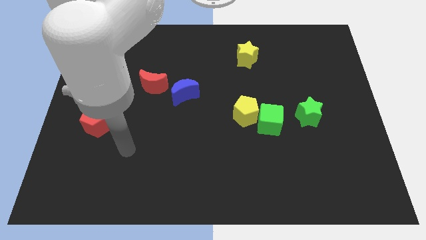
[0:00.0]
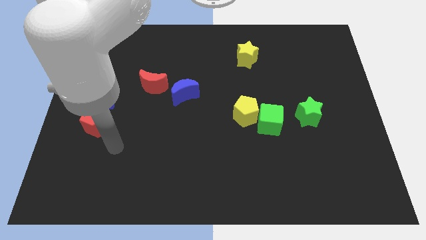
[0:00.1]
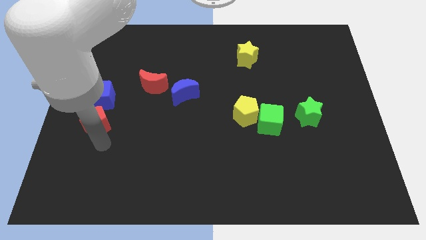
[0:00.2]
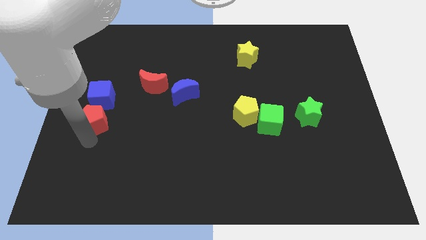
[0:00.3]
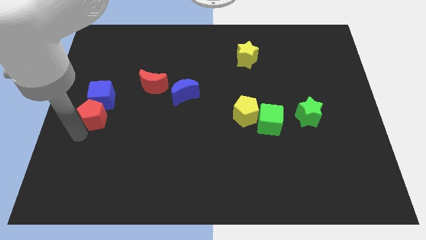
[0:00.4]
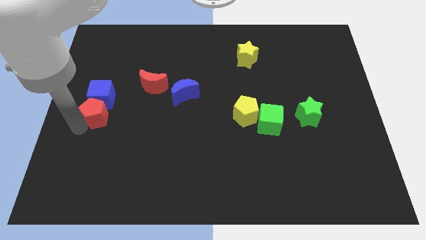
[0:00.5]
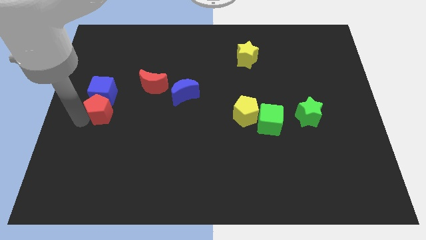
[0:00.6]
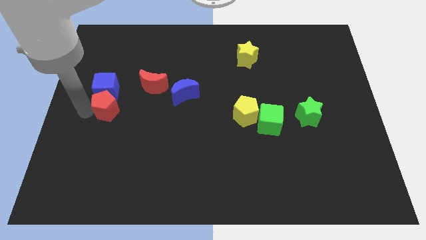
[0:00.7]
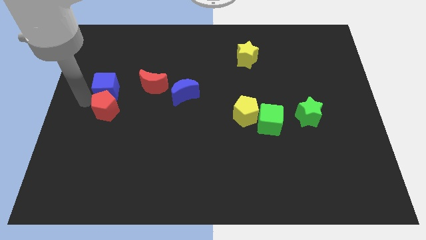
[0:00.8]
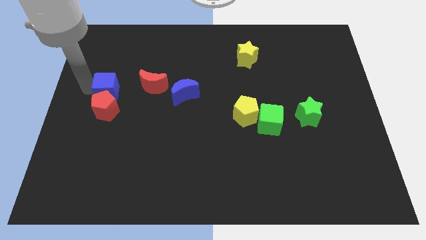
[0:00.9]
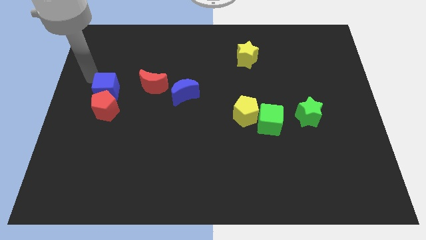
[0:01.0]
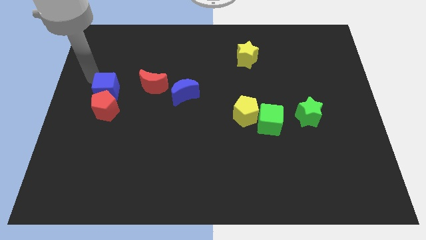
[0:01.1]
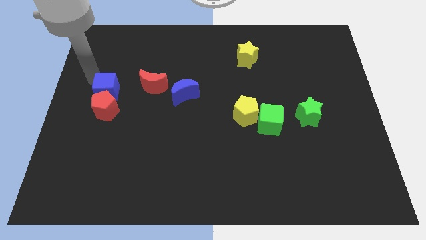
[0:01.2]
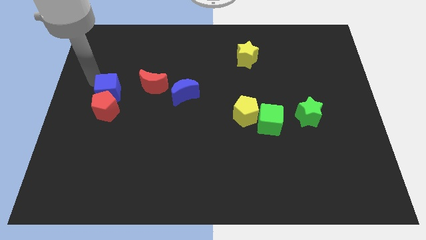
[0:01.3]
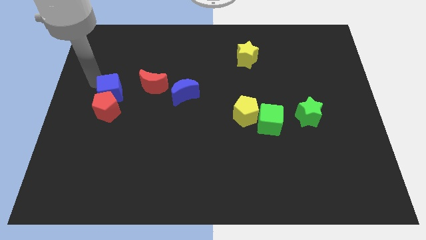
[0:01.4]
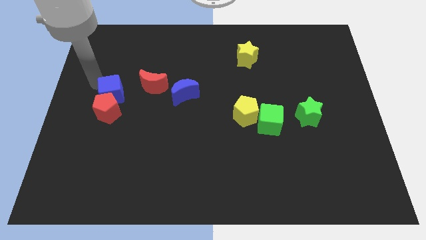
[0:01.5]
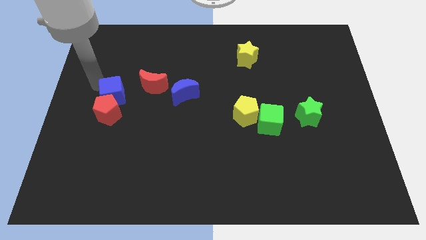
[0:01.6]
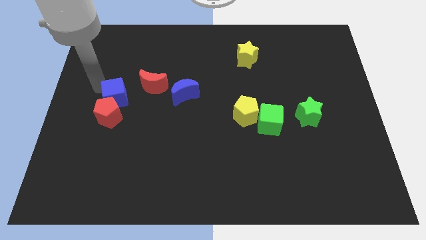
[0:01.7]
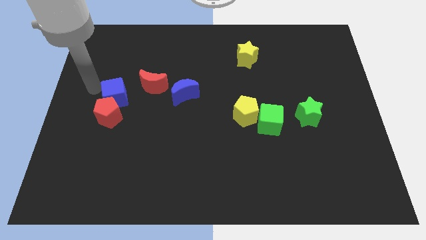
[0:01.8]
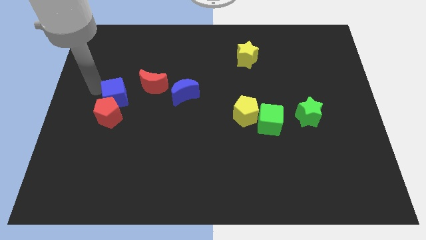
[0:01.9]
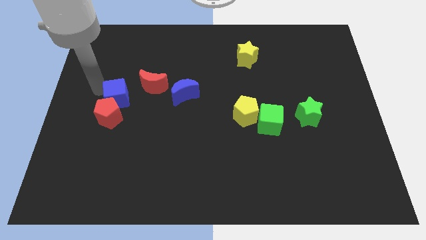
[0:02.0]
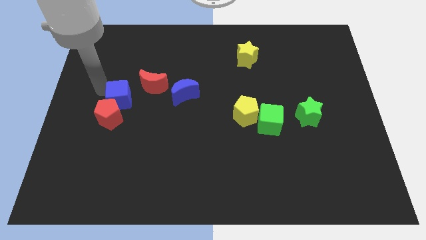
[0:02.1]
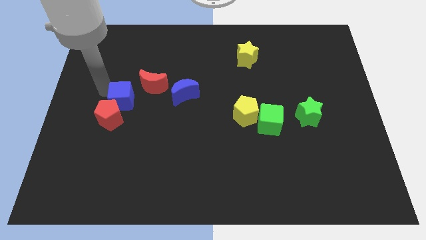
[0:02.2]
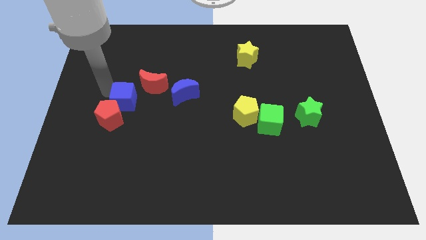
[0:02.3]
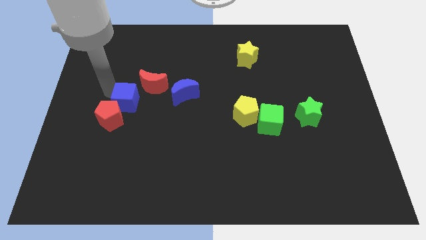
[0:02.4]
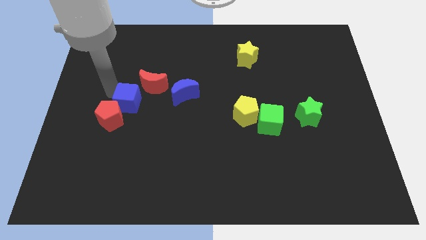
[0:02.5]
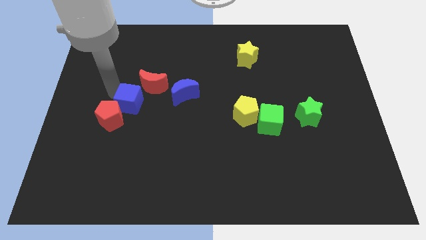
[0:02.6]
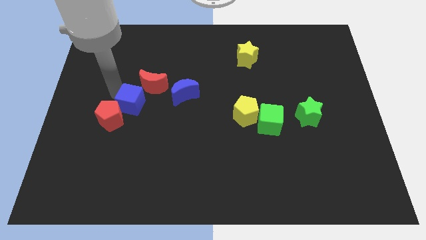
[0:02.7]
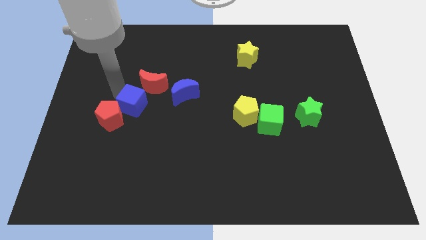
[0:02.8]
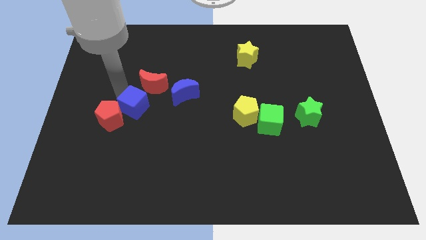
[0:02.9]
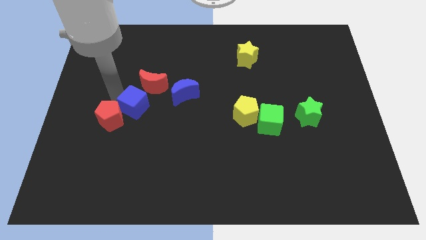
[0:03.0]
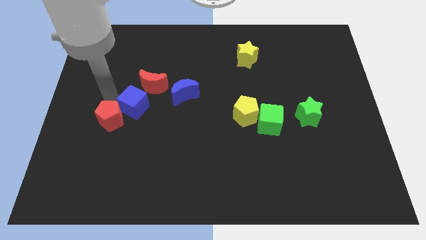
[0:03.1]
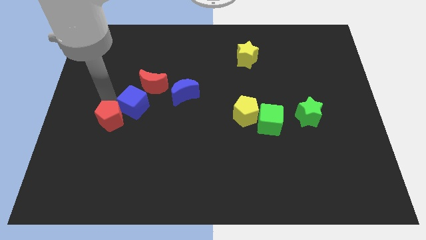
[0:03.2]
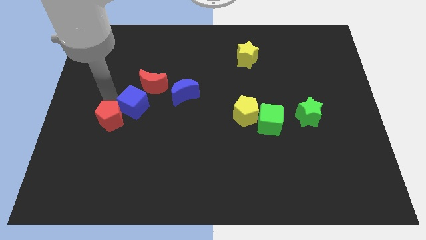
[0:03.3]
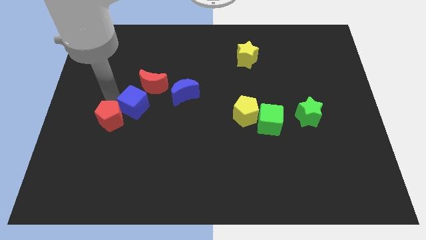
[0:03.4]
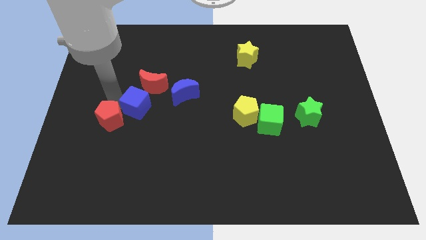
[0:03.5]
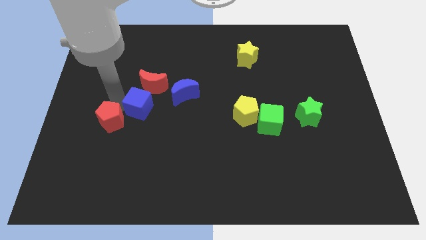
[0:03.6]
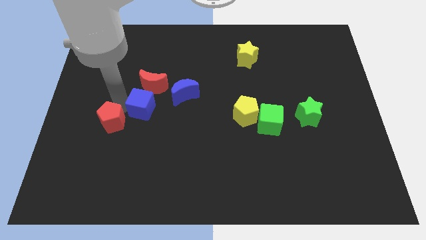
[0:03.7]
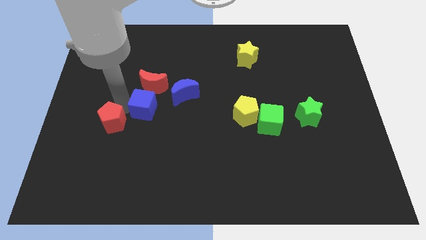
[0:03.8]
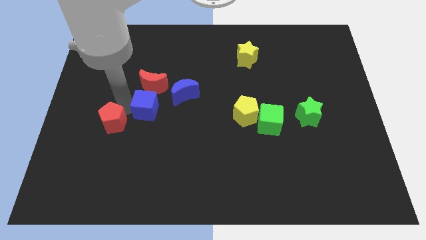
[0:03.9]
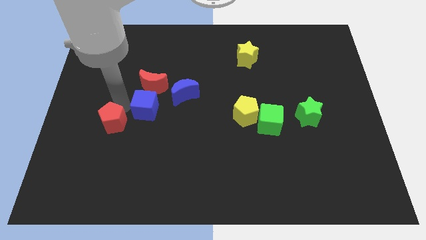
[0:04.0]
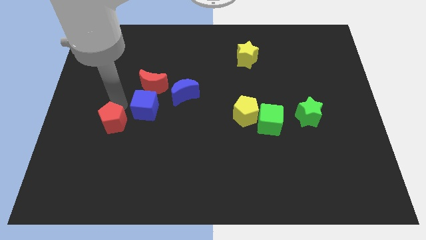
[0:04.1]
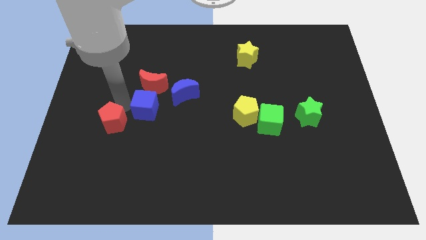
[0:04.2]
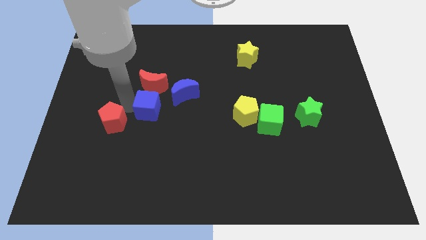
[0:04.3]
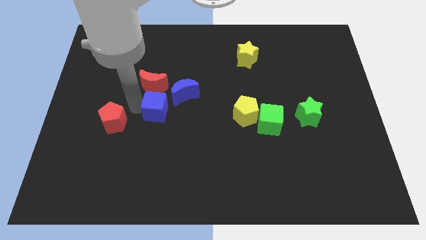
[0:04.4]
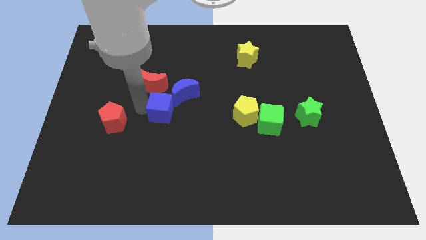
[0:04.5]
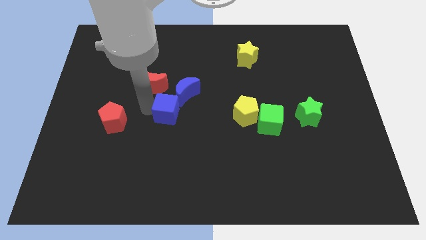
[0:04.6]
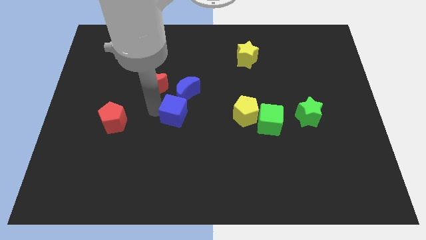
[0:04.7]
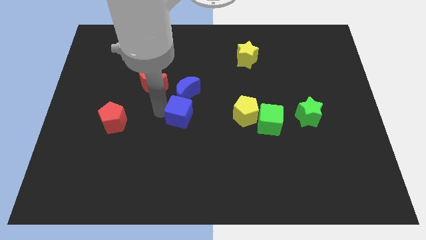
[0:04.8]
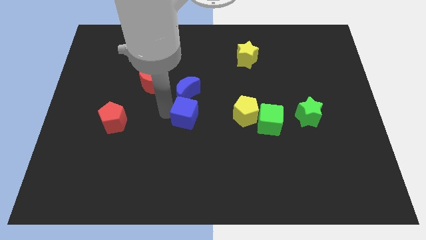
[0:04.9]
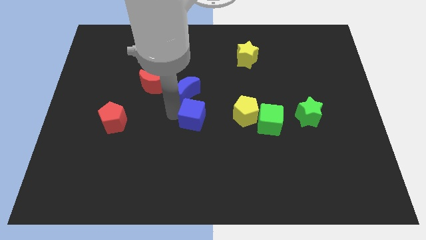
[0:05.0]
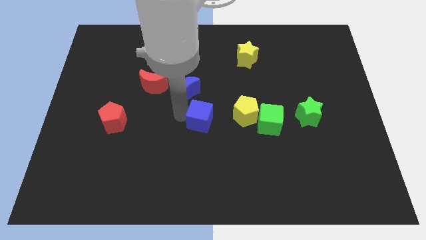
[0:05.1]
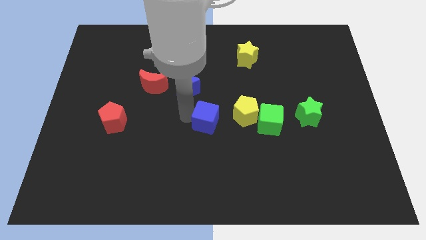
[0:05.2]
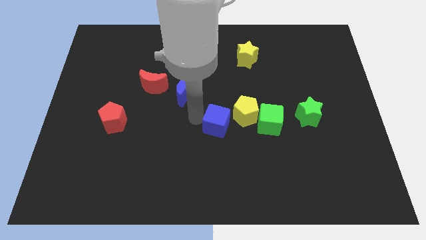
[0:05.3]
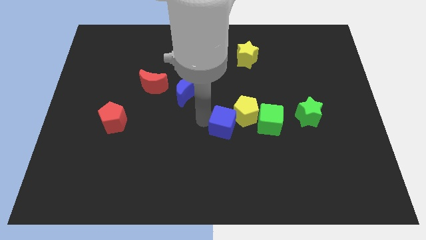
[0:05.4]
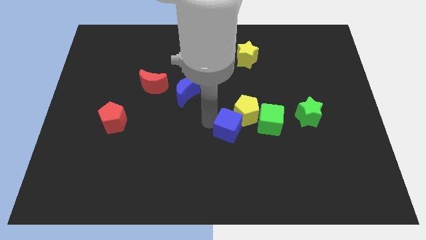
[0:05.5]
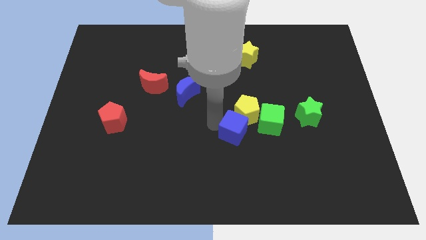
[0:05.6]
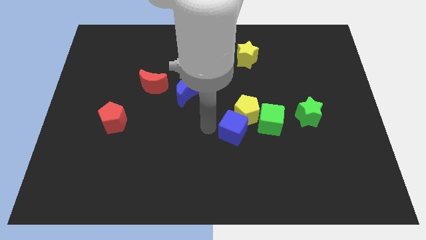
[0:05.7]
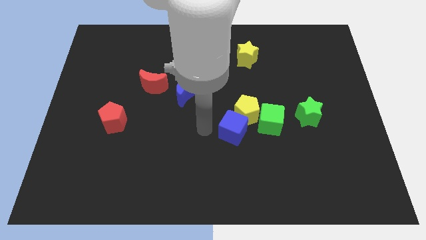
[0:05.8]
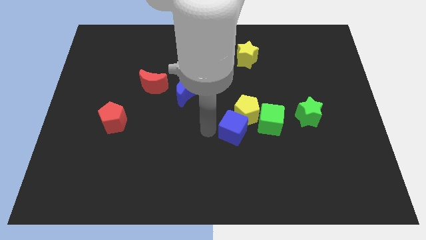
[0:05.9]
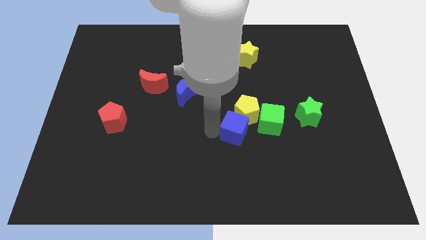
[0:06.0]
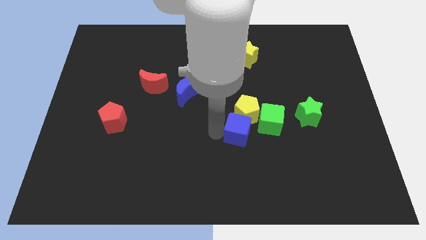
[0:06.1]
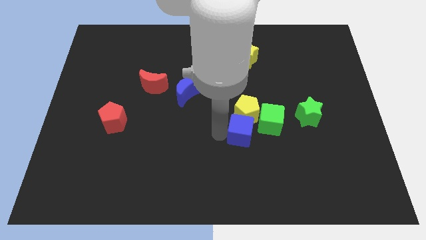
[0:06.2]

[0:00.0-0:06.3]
slide the blue cube to the bottom right side of the yellow pentagon

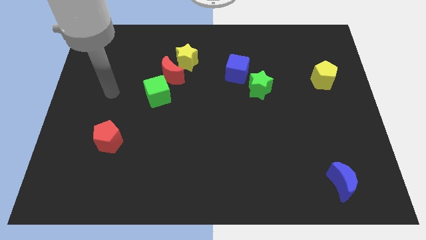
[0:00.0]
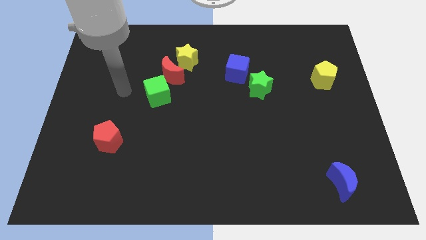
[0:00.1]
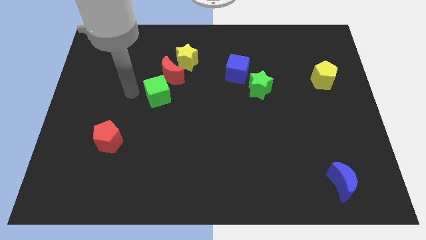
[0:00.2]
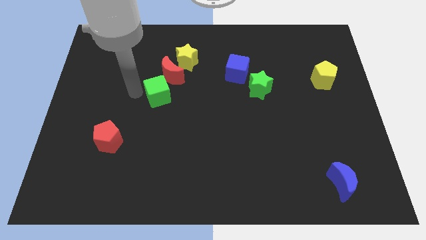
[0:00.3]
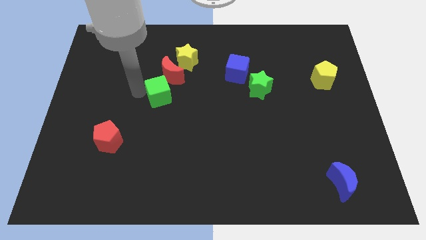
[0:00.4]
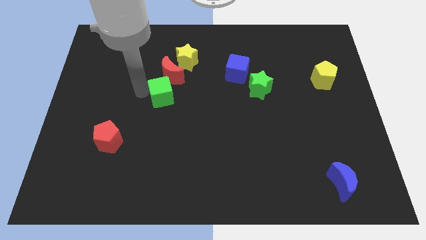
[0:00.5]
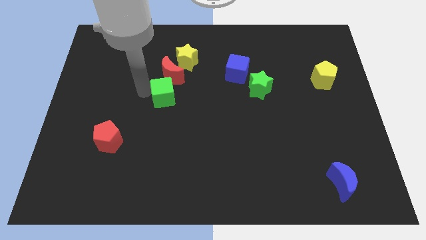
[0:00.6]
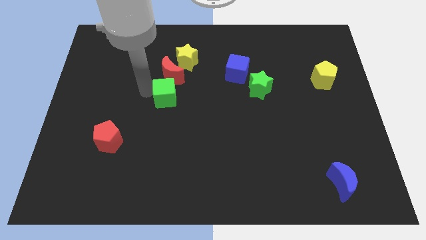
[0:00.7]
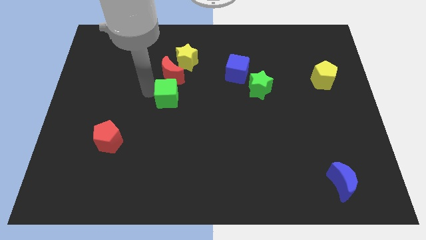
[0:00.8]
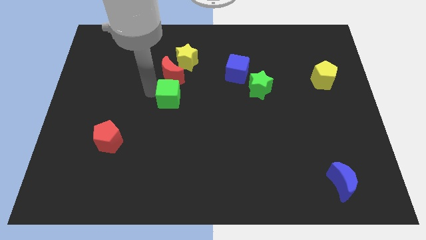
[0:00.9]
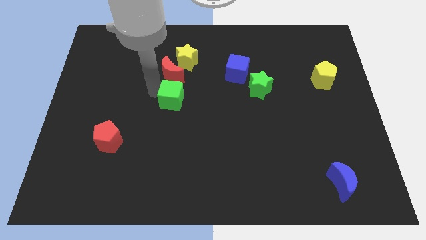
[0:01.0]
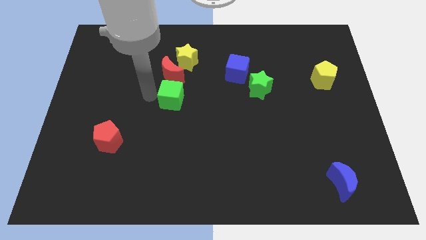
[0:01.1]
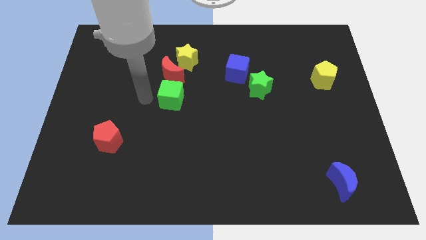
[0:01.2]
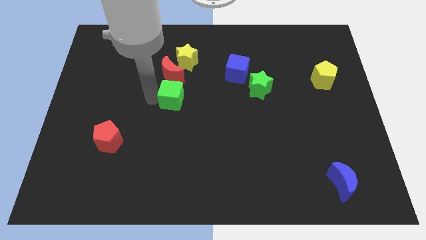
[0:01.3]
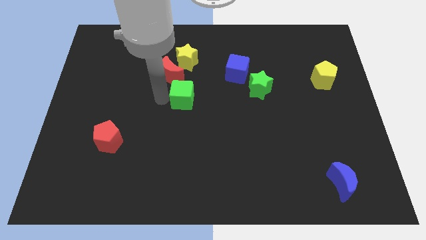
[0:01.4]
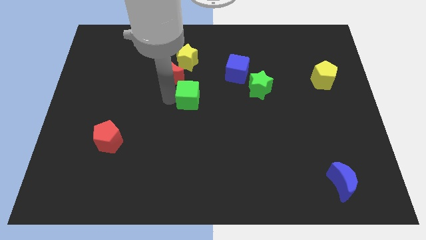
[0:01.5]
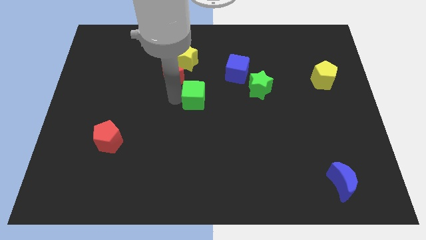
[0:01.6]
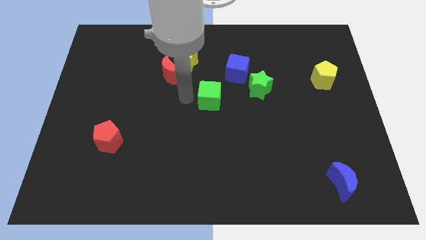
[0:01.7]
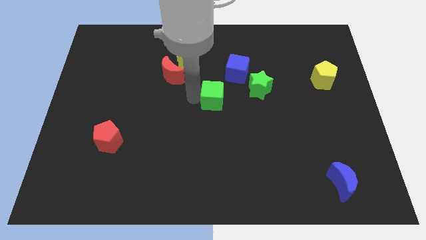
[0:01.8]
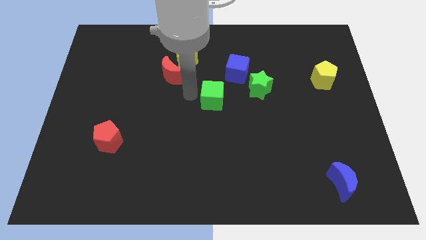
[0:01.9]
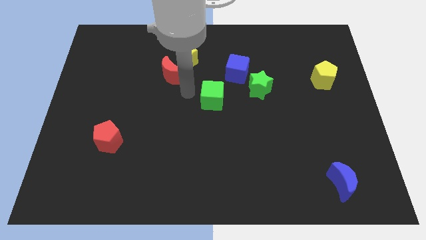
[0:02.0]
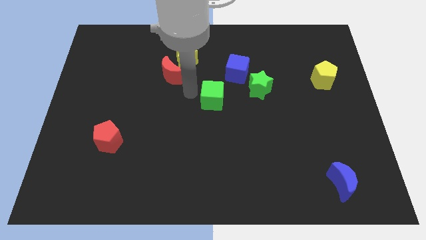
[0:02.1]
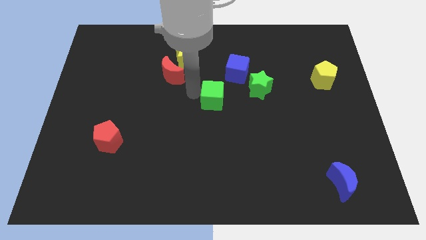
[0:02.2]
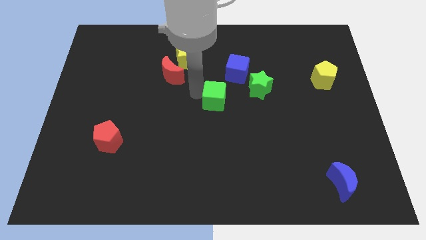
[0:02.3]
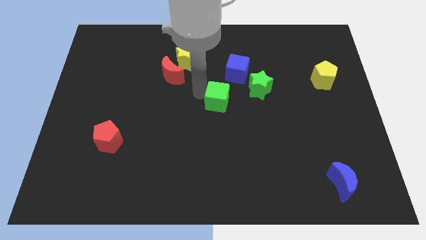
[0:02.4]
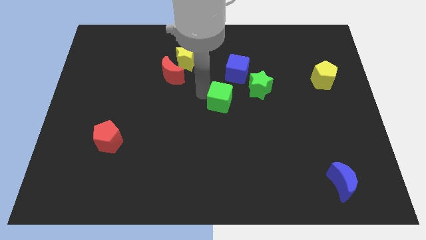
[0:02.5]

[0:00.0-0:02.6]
put the green cube to the bottom left side of the green star
